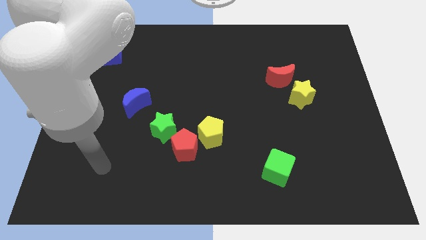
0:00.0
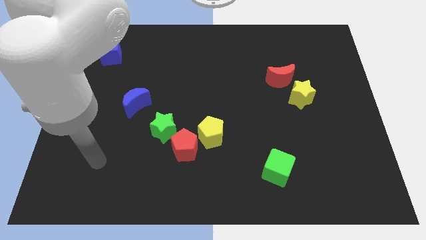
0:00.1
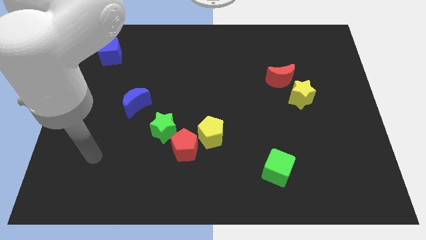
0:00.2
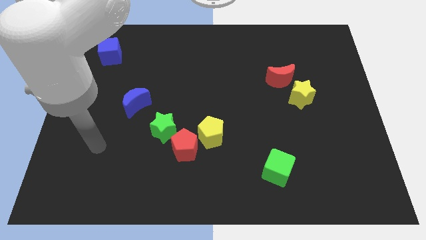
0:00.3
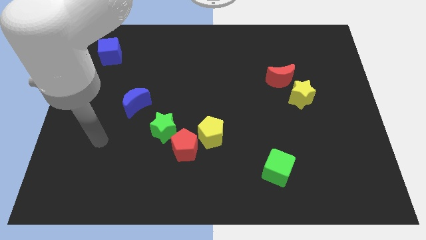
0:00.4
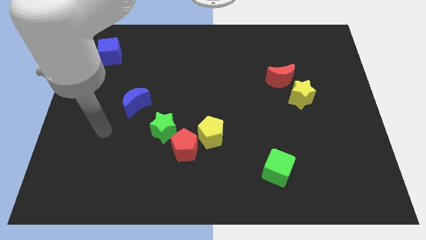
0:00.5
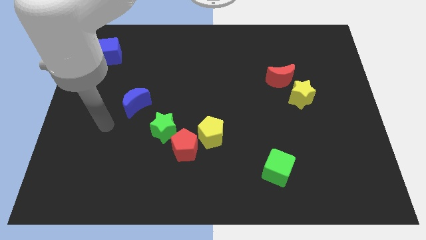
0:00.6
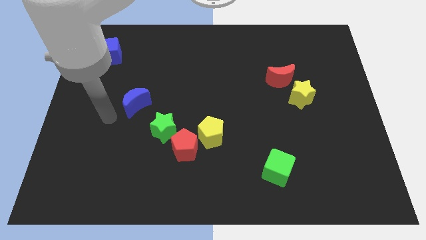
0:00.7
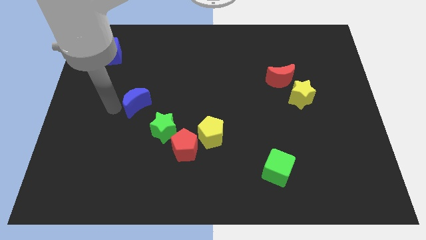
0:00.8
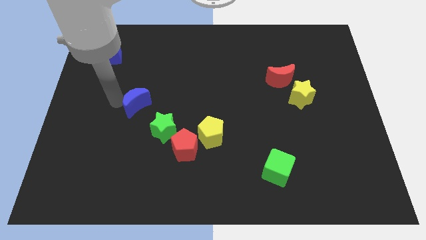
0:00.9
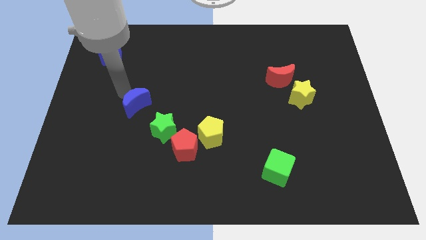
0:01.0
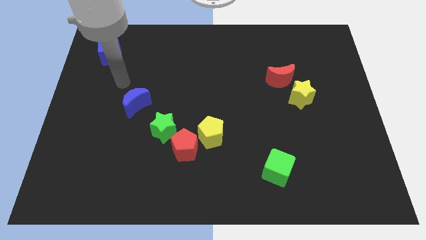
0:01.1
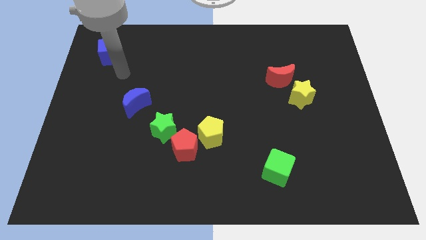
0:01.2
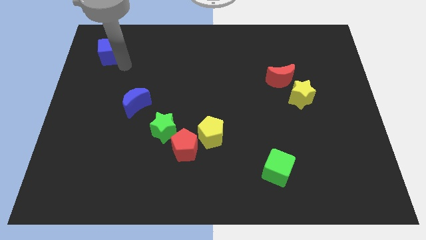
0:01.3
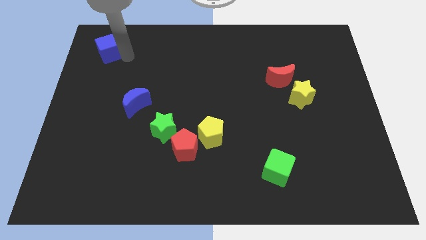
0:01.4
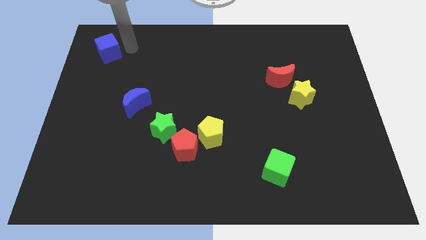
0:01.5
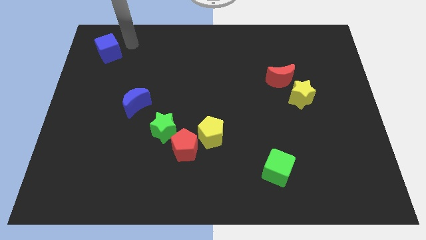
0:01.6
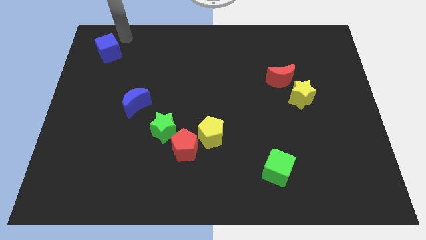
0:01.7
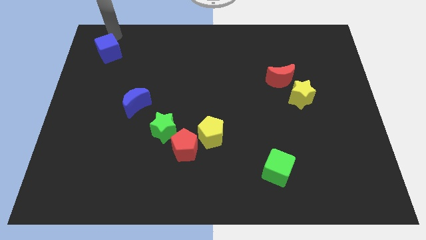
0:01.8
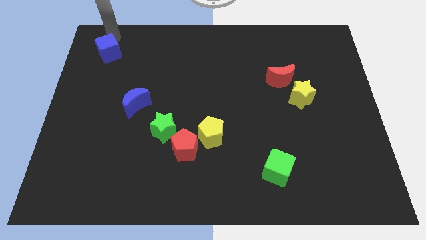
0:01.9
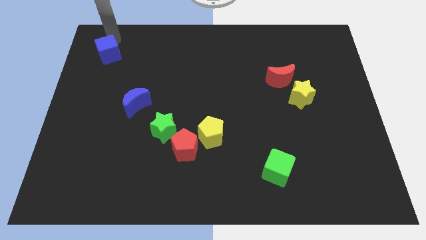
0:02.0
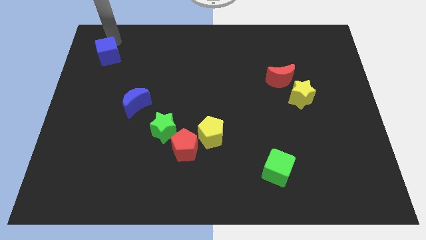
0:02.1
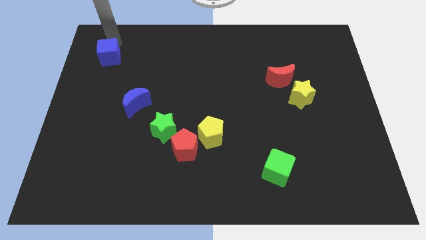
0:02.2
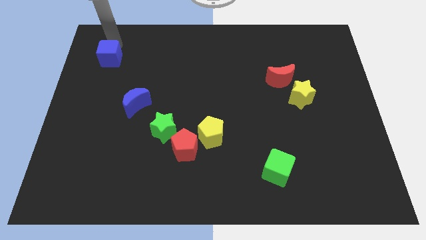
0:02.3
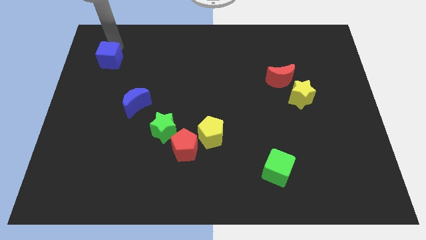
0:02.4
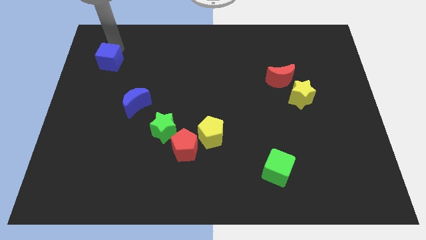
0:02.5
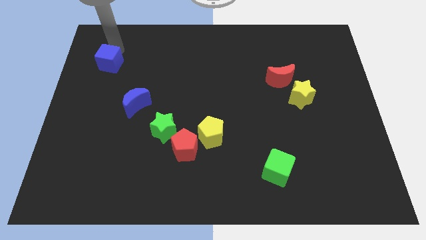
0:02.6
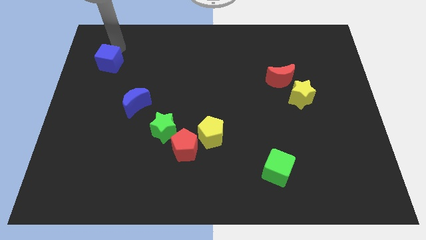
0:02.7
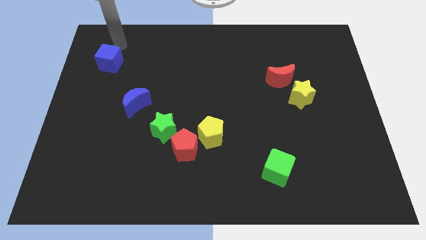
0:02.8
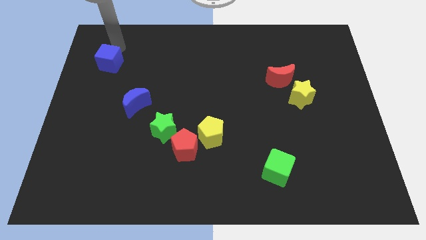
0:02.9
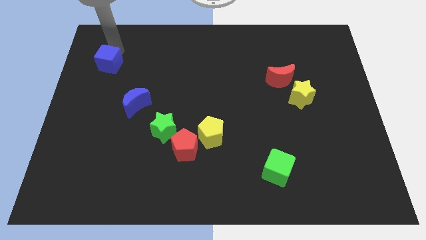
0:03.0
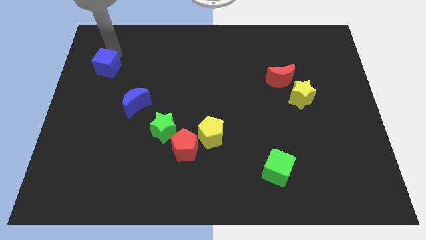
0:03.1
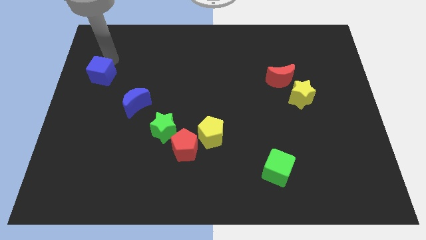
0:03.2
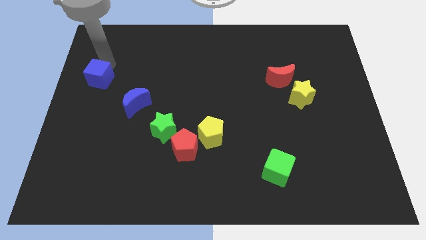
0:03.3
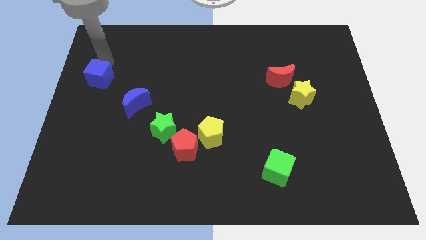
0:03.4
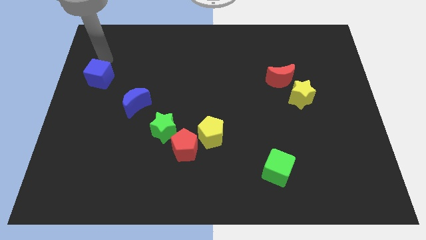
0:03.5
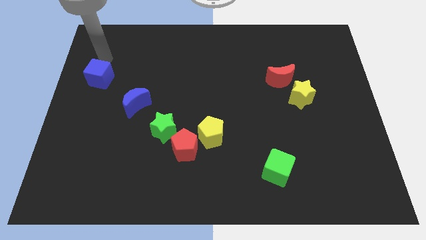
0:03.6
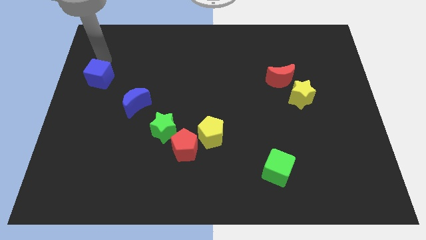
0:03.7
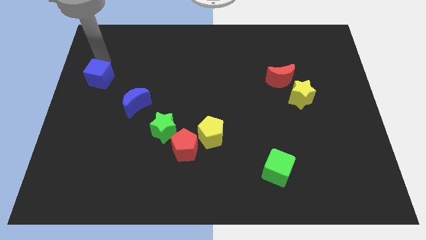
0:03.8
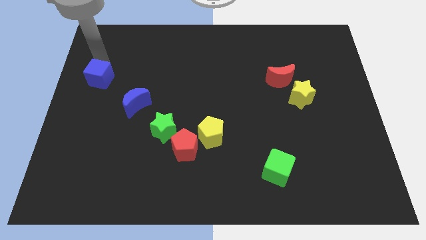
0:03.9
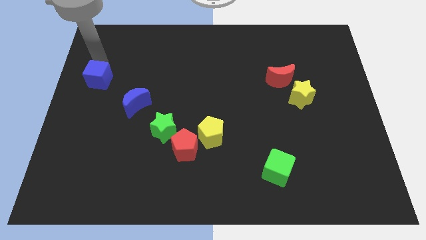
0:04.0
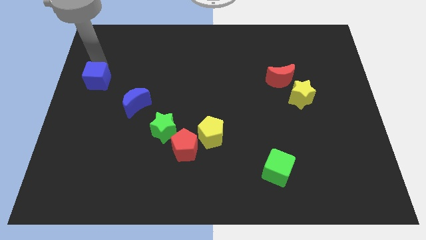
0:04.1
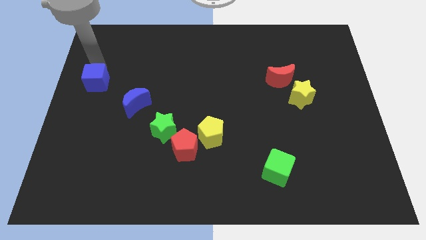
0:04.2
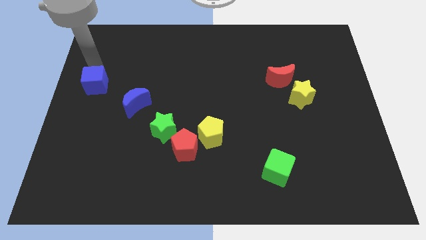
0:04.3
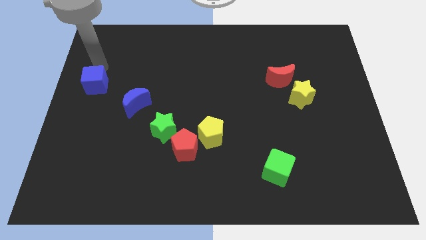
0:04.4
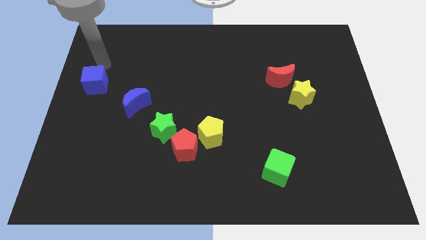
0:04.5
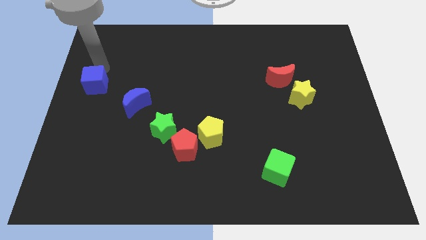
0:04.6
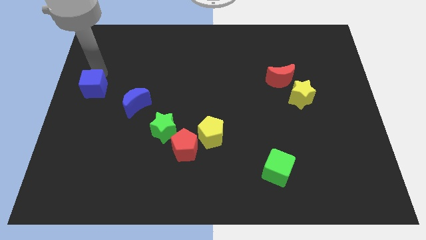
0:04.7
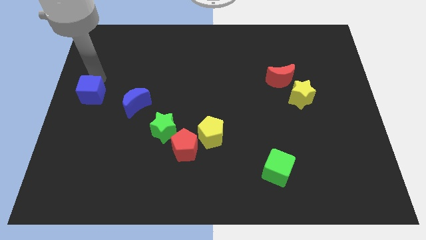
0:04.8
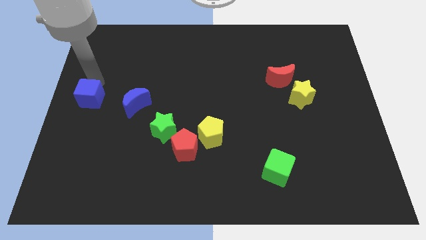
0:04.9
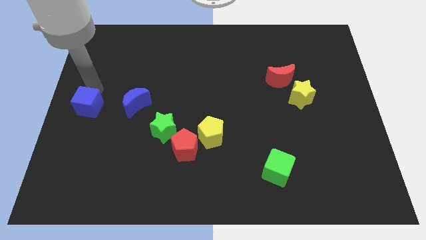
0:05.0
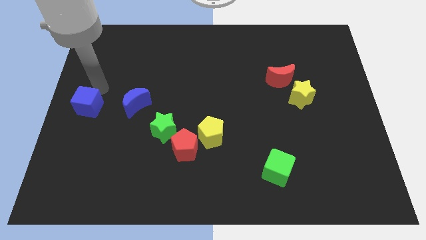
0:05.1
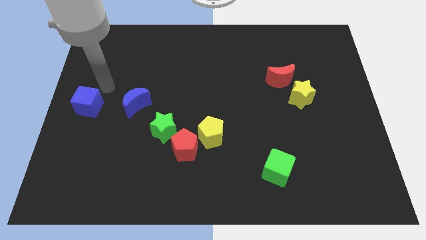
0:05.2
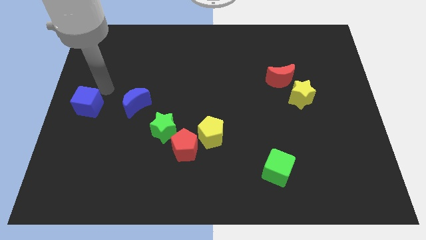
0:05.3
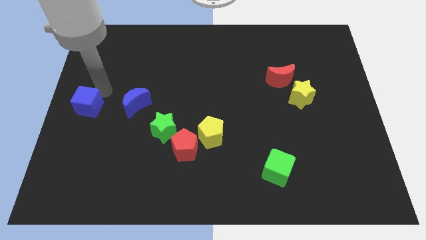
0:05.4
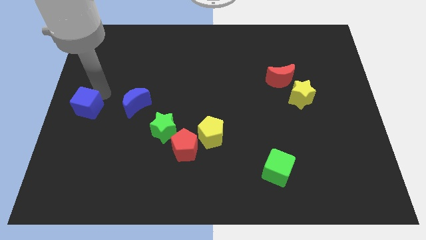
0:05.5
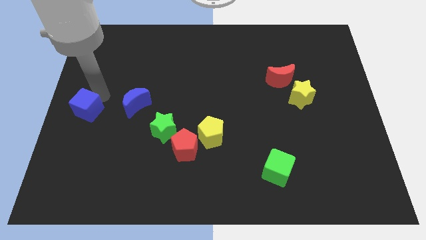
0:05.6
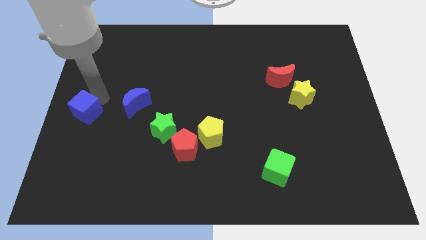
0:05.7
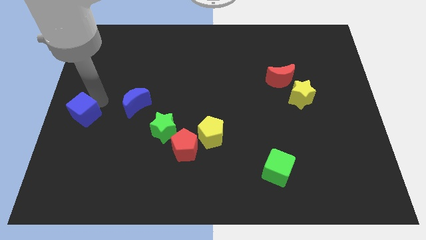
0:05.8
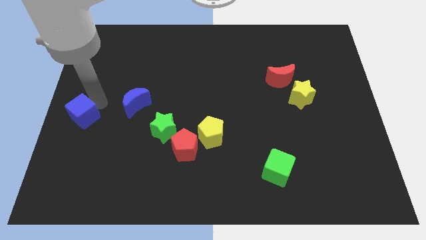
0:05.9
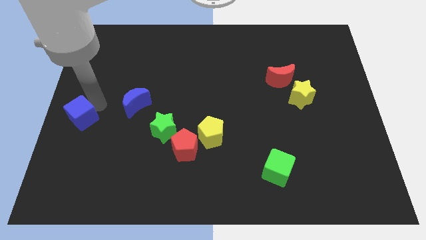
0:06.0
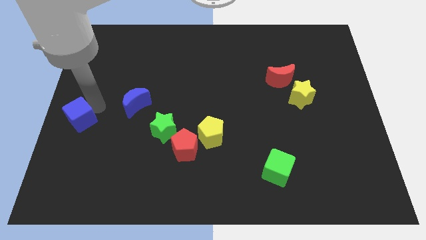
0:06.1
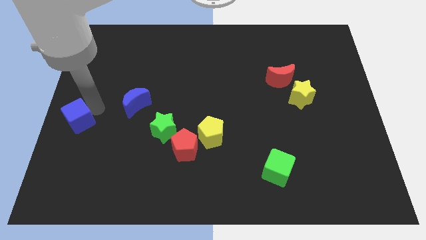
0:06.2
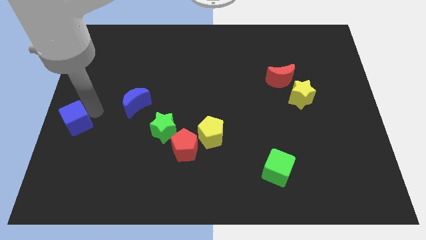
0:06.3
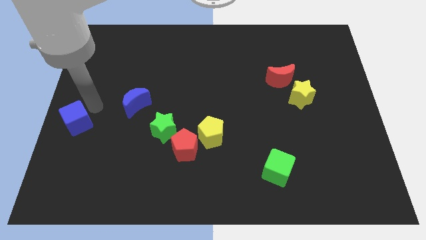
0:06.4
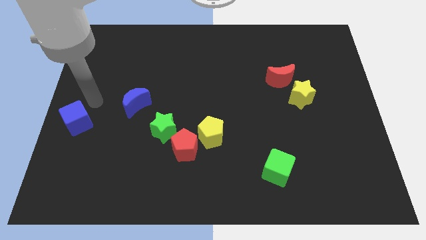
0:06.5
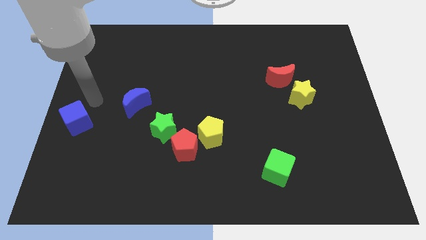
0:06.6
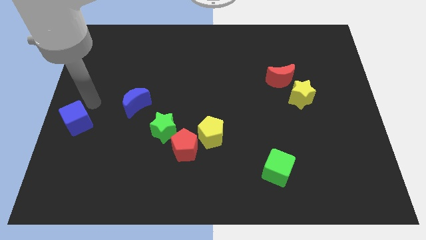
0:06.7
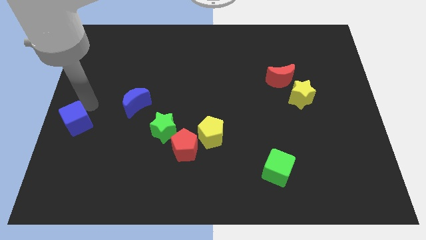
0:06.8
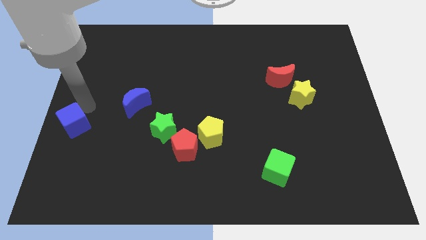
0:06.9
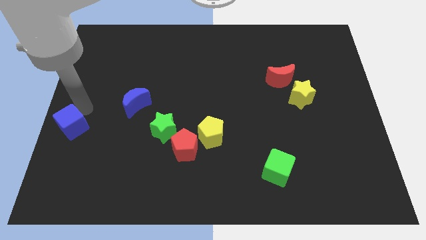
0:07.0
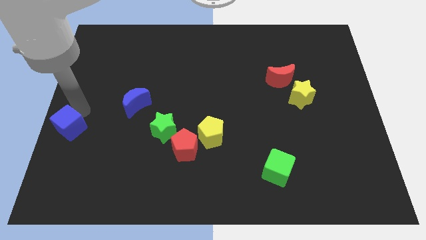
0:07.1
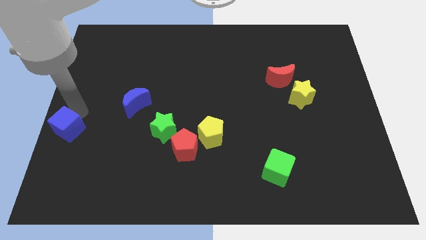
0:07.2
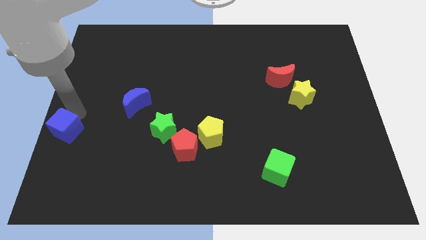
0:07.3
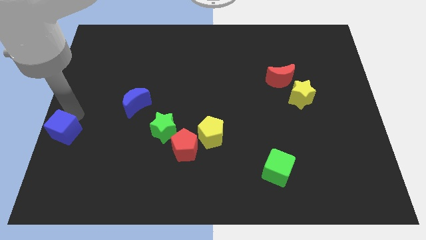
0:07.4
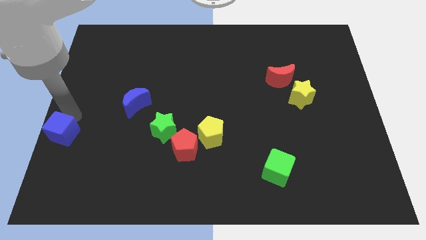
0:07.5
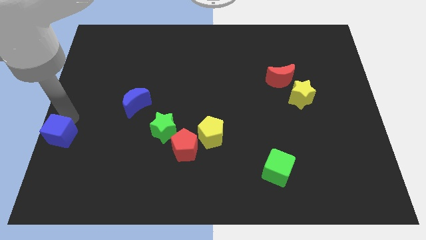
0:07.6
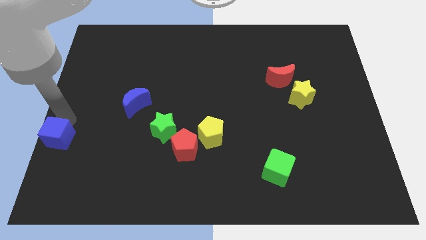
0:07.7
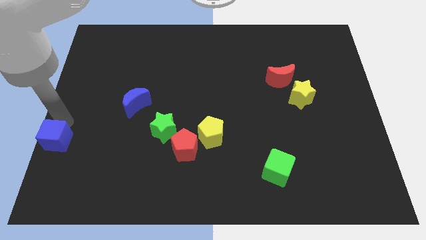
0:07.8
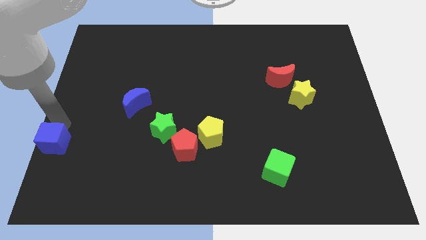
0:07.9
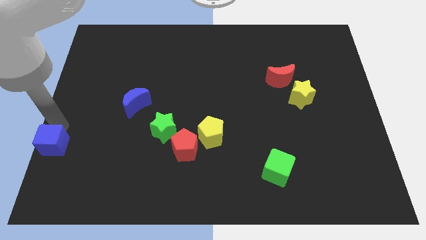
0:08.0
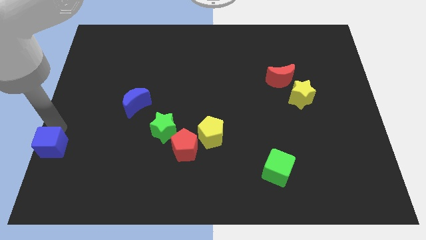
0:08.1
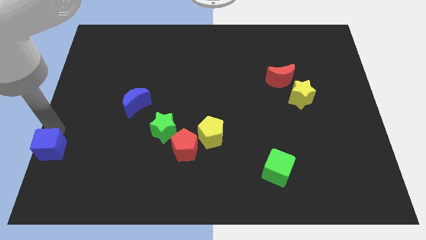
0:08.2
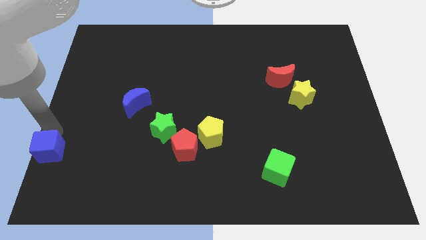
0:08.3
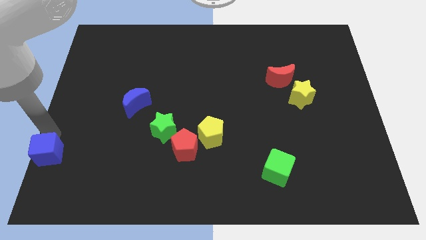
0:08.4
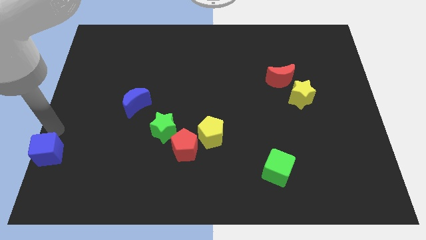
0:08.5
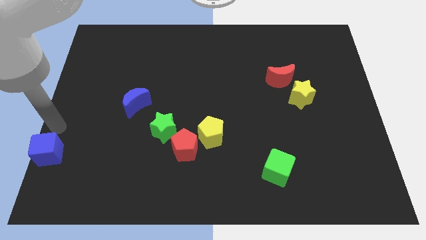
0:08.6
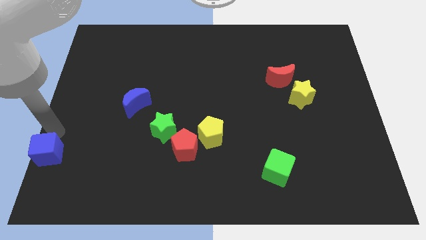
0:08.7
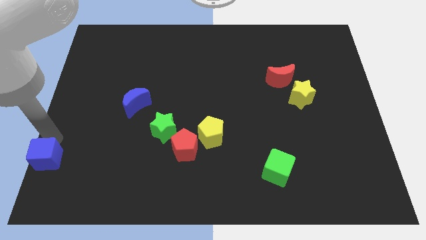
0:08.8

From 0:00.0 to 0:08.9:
slide the blue cube to the bottom left
